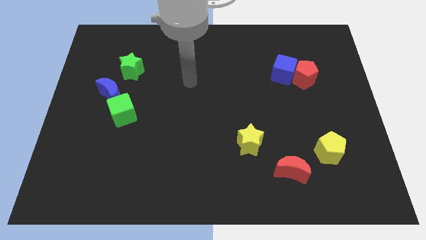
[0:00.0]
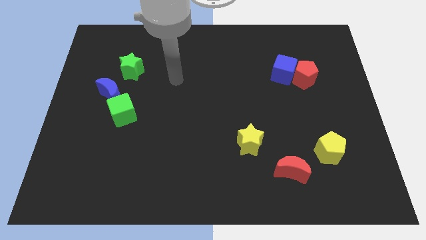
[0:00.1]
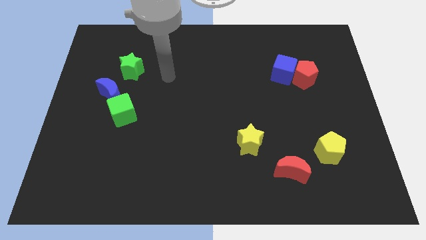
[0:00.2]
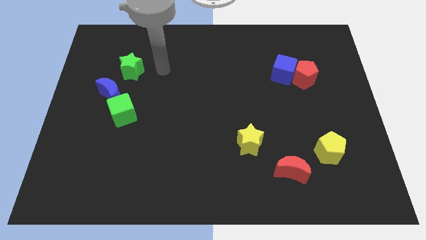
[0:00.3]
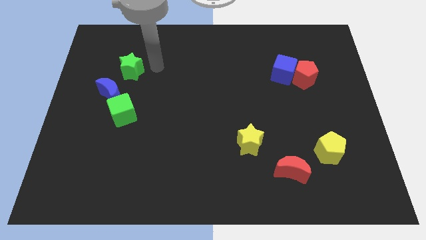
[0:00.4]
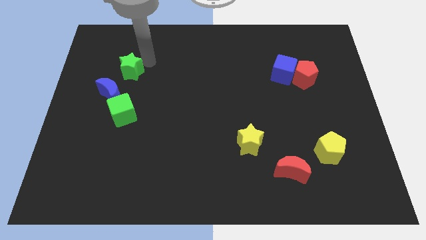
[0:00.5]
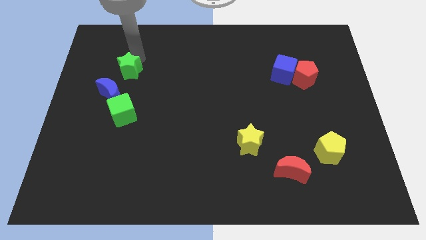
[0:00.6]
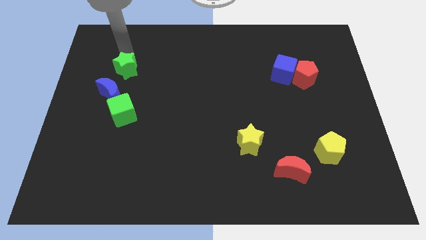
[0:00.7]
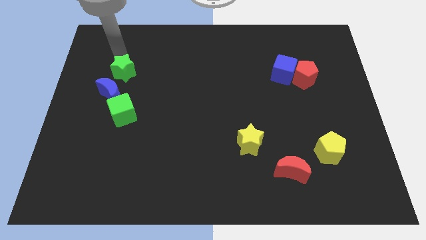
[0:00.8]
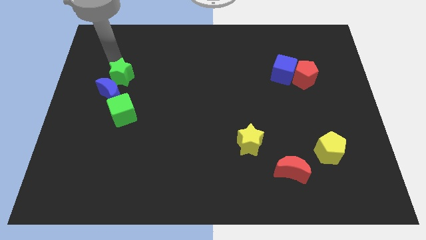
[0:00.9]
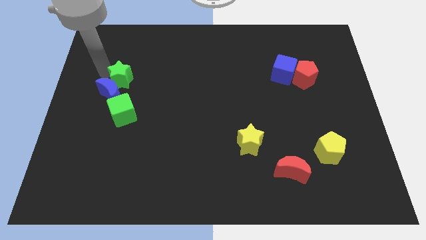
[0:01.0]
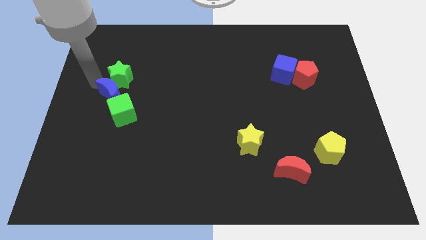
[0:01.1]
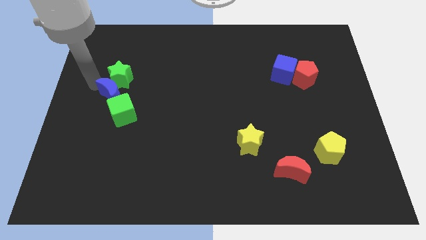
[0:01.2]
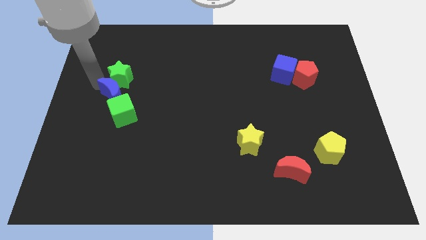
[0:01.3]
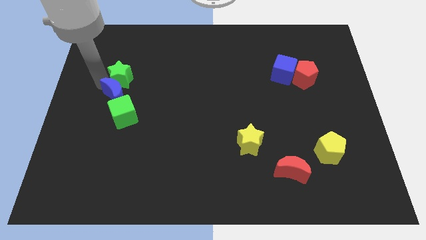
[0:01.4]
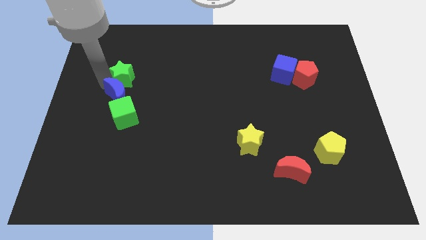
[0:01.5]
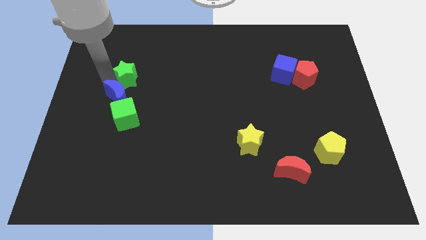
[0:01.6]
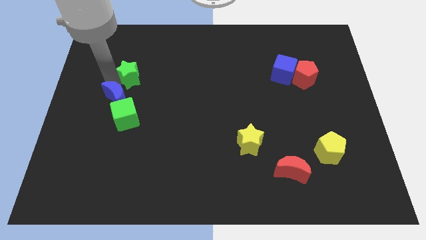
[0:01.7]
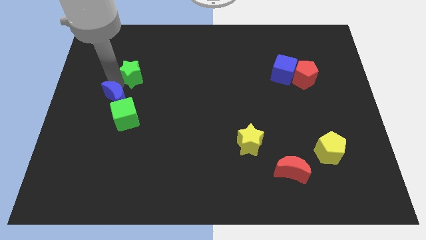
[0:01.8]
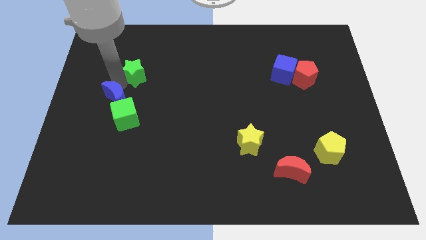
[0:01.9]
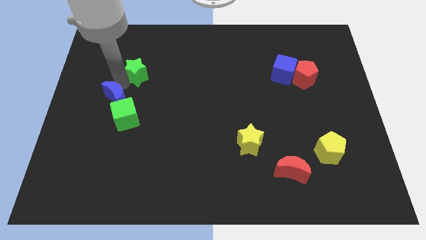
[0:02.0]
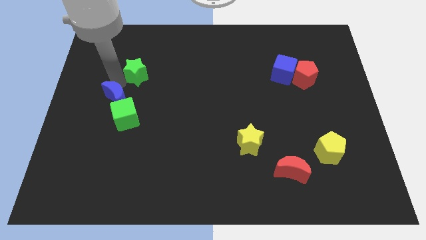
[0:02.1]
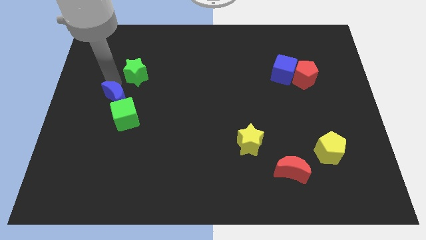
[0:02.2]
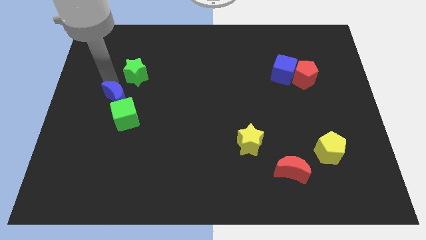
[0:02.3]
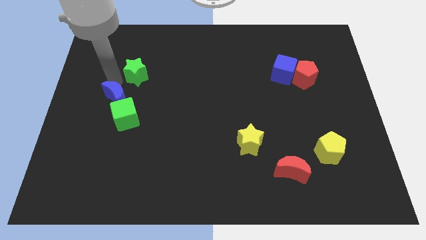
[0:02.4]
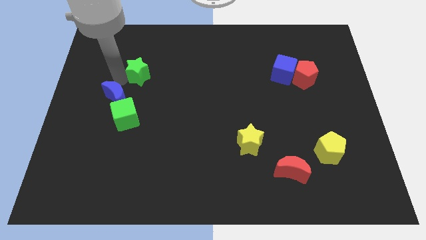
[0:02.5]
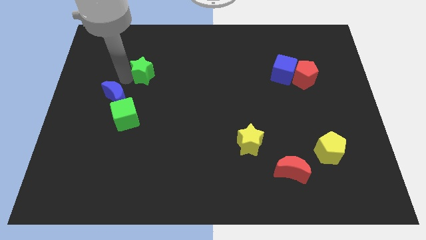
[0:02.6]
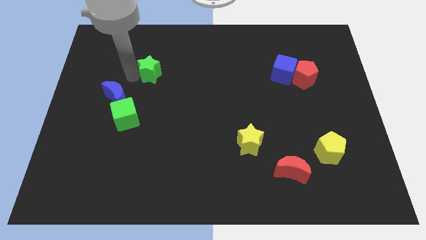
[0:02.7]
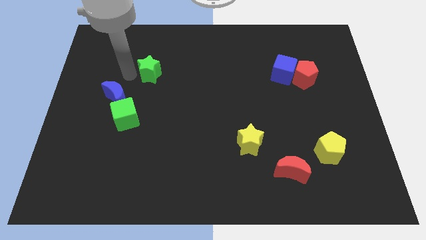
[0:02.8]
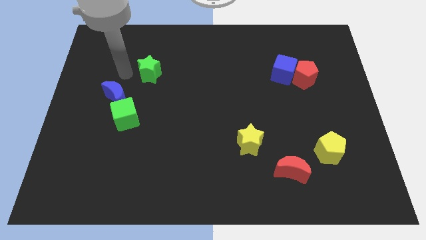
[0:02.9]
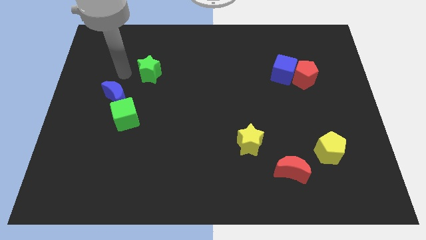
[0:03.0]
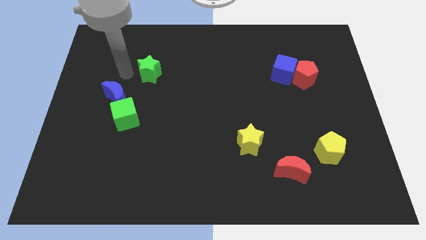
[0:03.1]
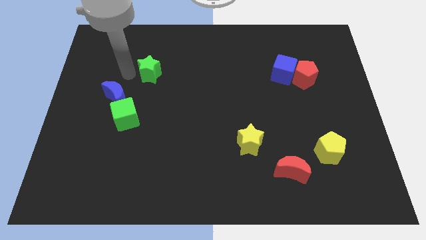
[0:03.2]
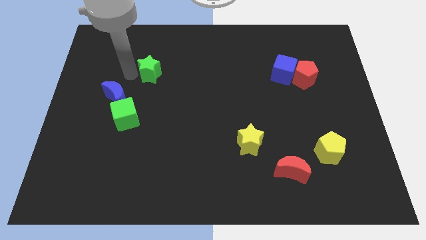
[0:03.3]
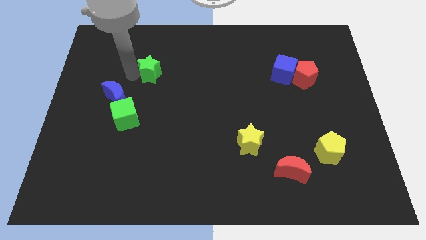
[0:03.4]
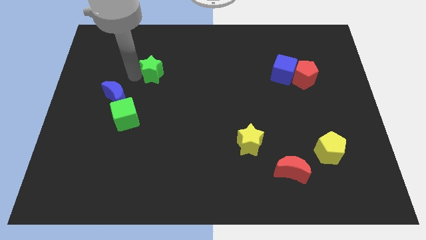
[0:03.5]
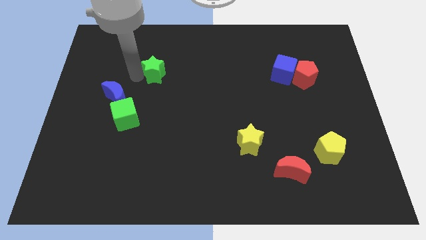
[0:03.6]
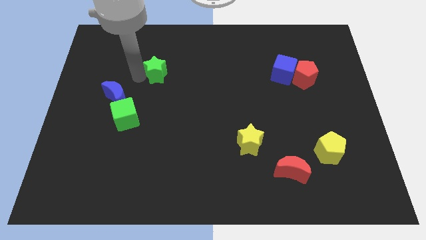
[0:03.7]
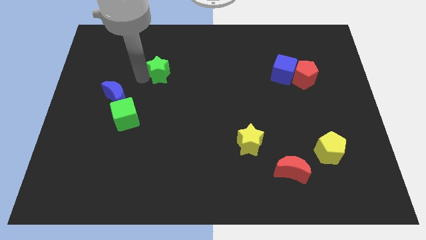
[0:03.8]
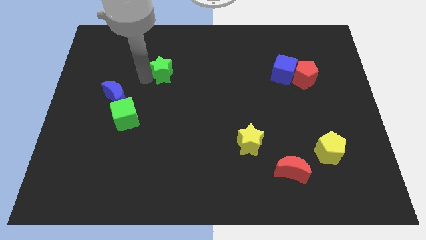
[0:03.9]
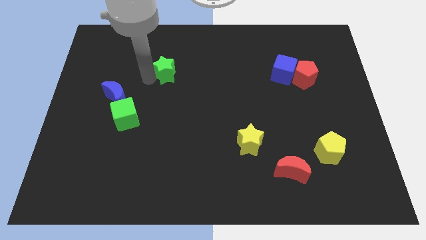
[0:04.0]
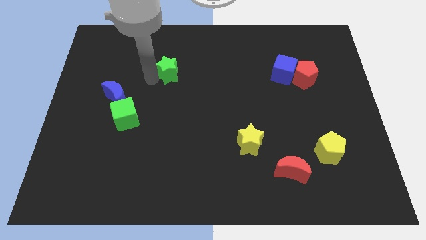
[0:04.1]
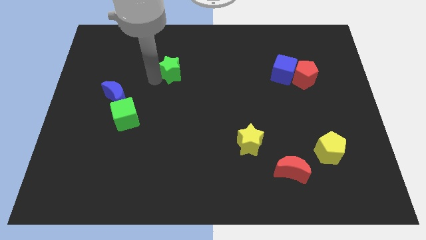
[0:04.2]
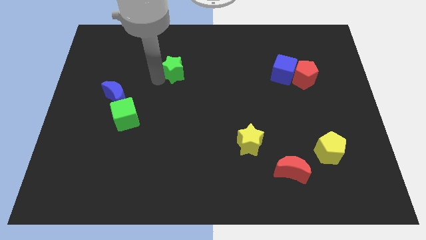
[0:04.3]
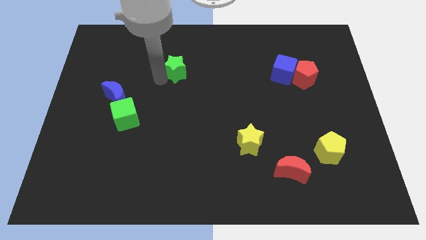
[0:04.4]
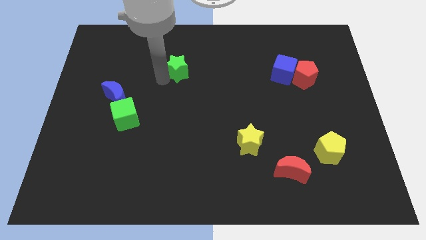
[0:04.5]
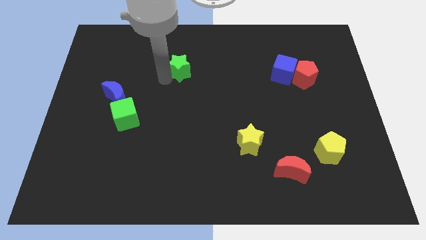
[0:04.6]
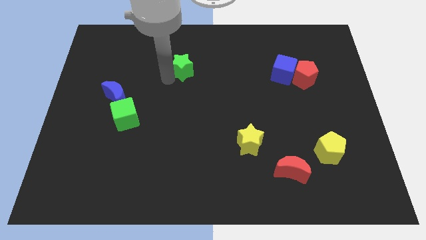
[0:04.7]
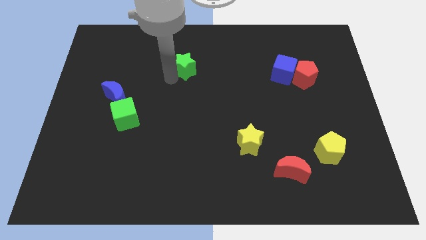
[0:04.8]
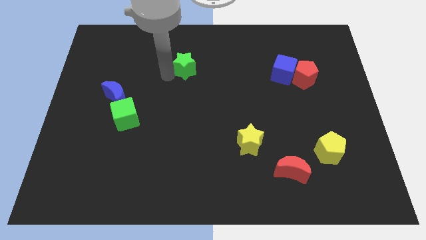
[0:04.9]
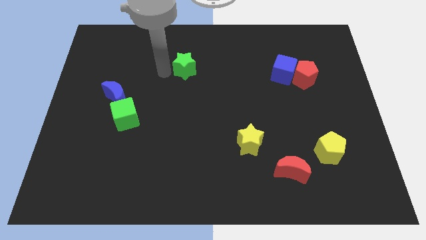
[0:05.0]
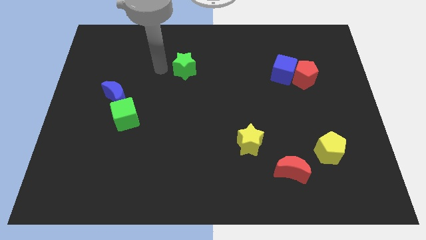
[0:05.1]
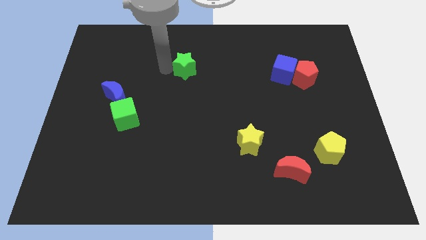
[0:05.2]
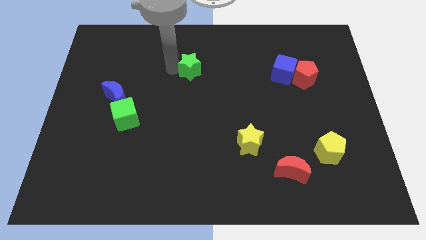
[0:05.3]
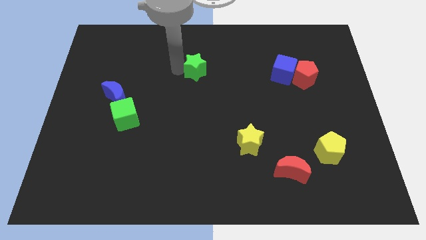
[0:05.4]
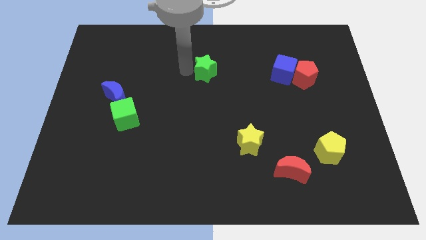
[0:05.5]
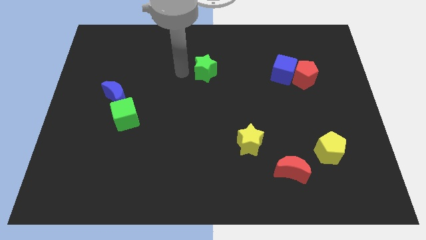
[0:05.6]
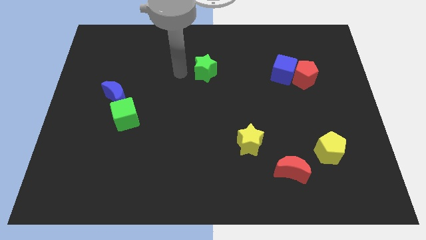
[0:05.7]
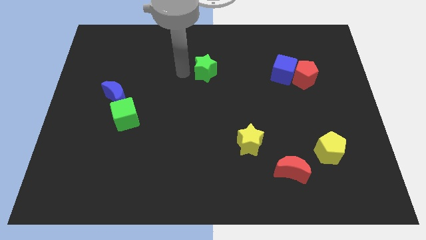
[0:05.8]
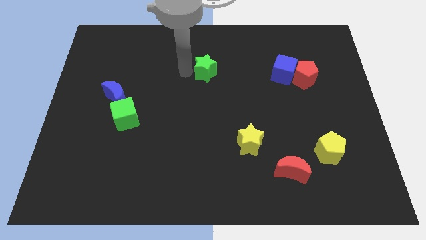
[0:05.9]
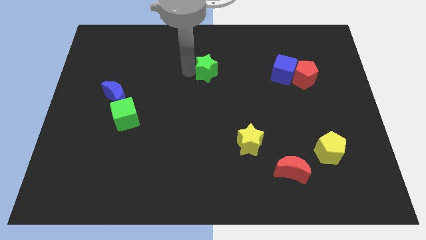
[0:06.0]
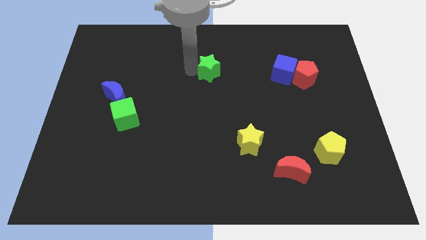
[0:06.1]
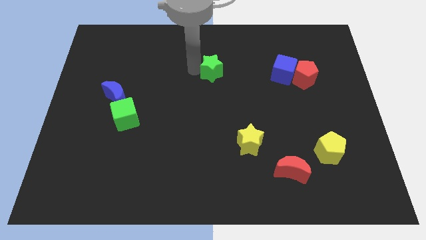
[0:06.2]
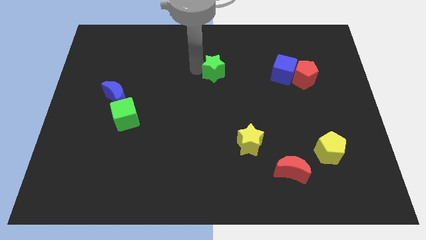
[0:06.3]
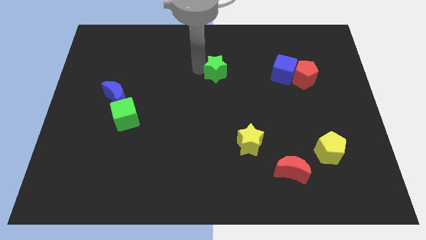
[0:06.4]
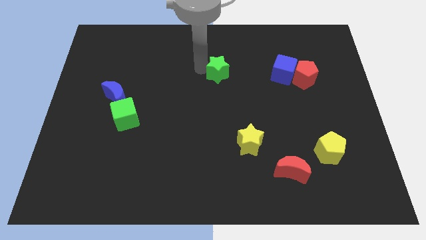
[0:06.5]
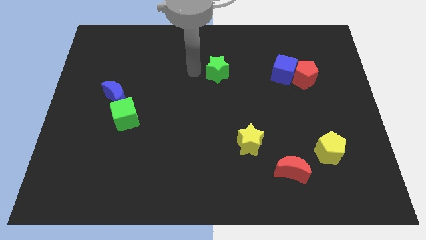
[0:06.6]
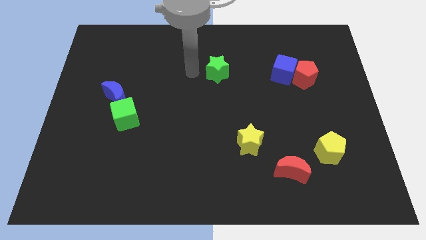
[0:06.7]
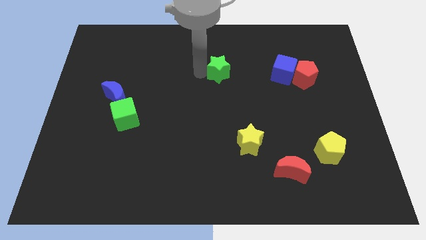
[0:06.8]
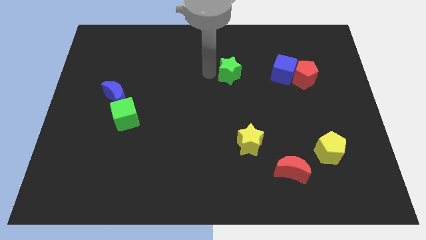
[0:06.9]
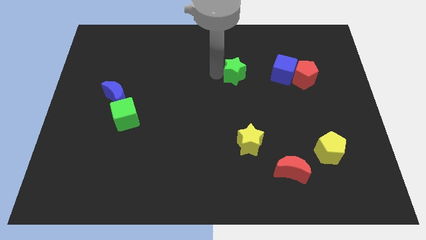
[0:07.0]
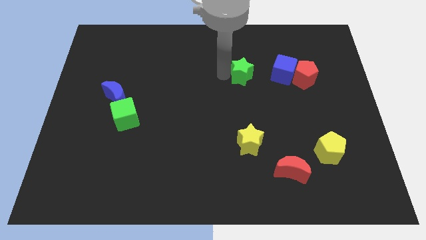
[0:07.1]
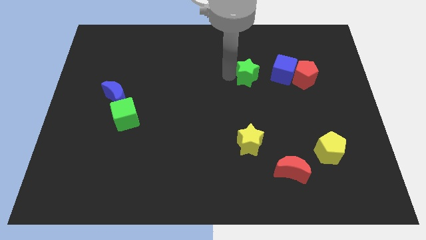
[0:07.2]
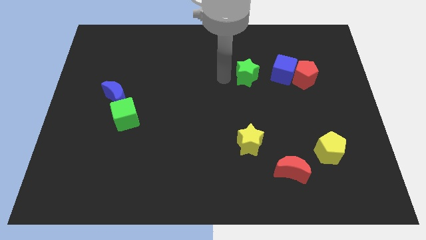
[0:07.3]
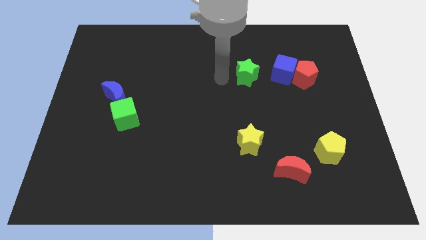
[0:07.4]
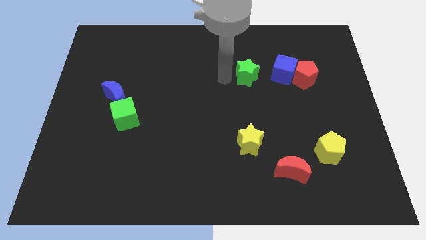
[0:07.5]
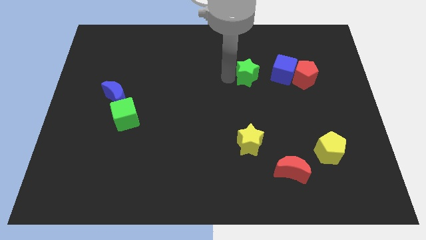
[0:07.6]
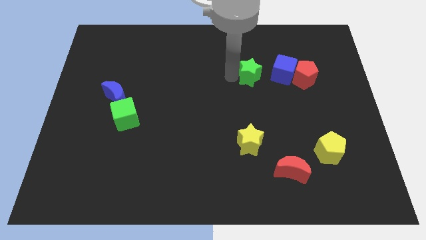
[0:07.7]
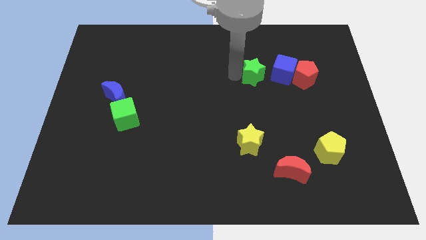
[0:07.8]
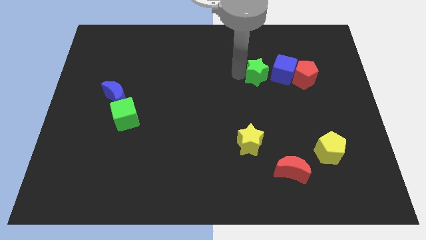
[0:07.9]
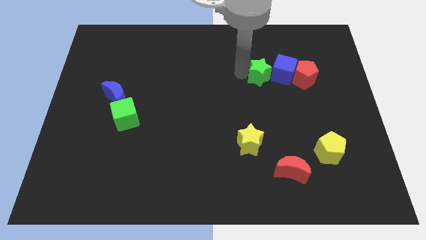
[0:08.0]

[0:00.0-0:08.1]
move the green star to the blue cube
